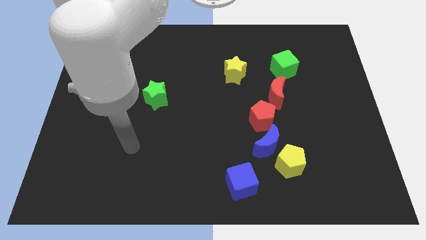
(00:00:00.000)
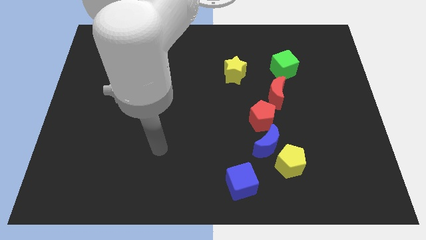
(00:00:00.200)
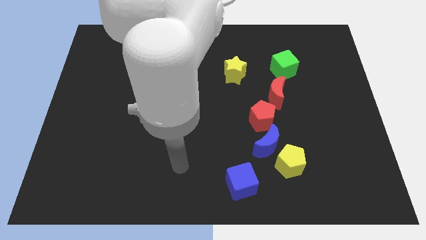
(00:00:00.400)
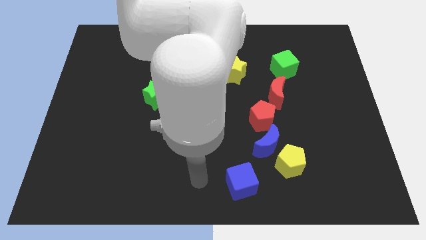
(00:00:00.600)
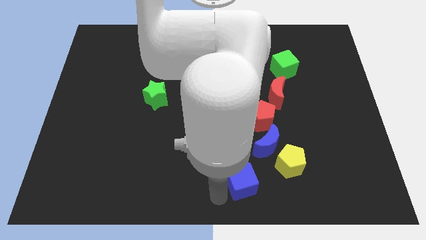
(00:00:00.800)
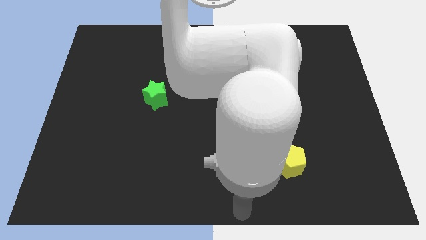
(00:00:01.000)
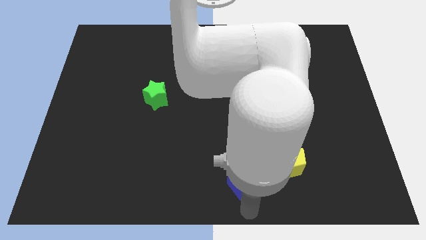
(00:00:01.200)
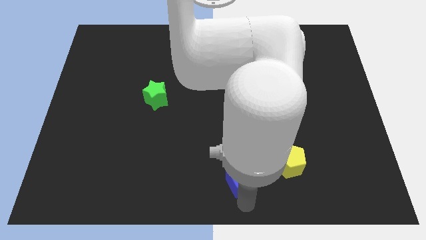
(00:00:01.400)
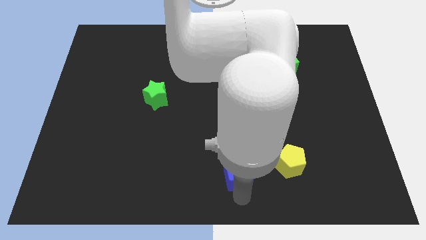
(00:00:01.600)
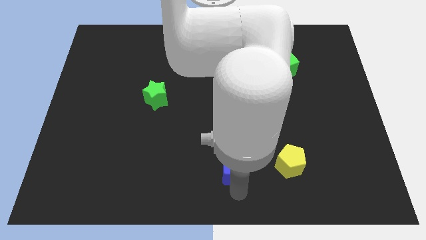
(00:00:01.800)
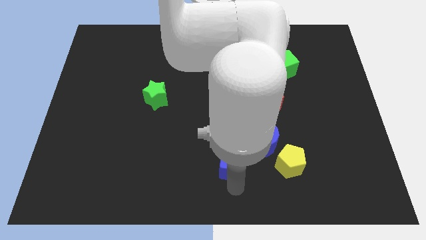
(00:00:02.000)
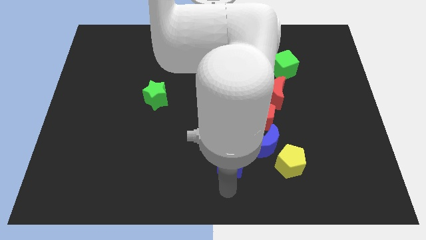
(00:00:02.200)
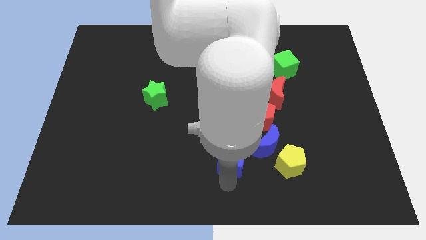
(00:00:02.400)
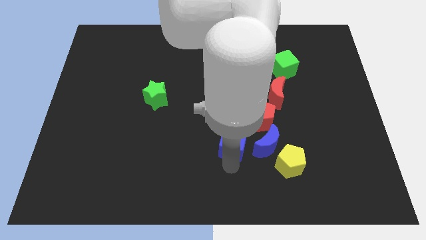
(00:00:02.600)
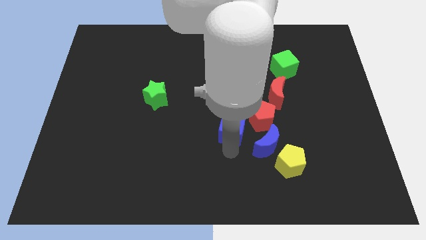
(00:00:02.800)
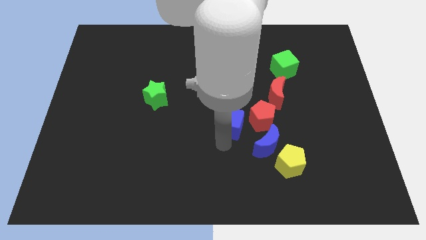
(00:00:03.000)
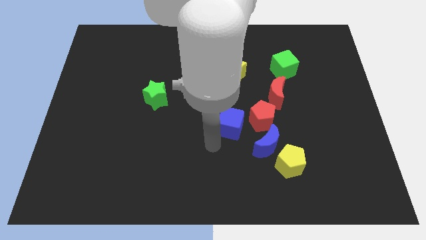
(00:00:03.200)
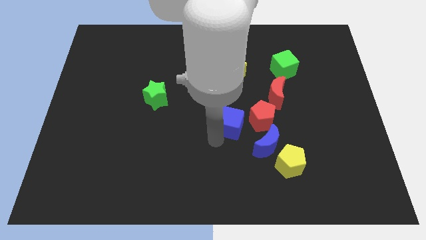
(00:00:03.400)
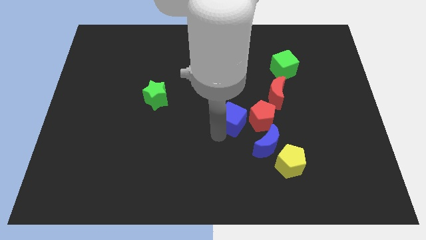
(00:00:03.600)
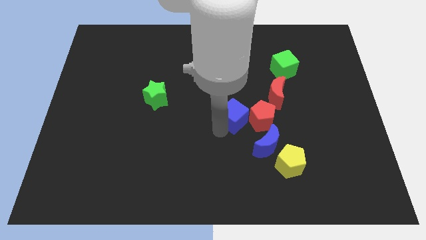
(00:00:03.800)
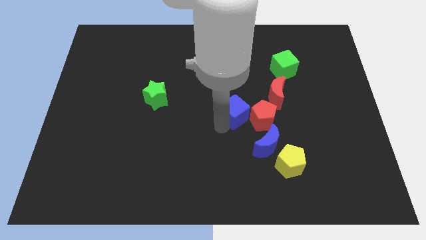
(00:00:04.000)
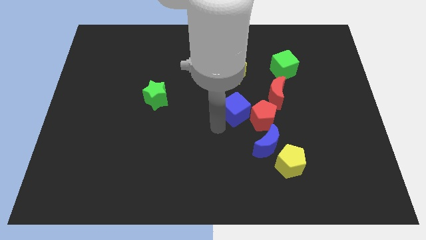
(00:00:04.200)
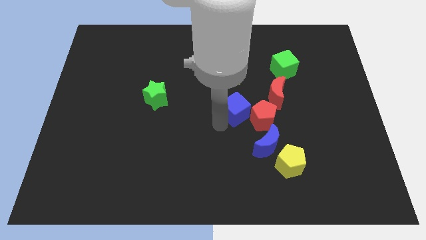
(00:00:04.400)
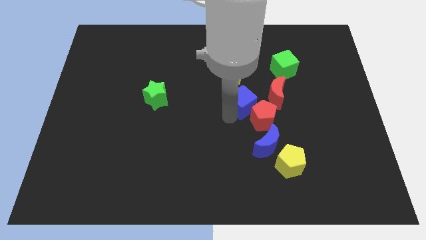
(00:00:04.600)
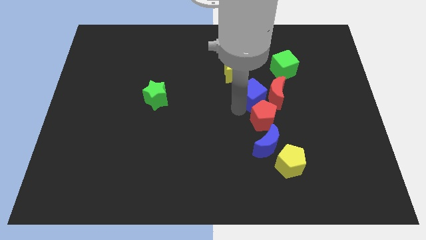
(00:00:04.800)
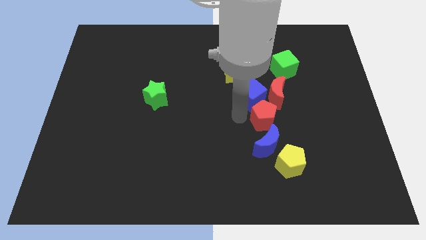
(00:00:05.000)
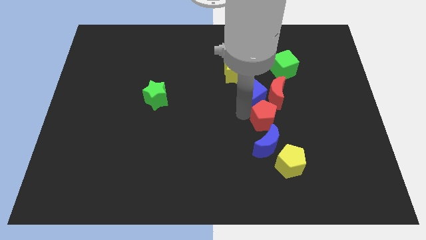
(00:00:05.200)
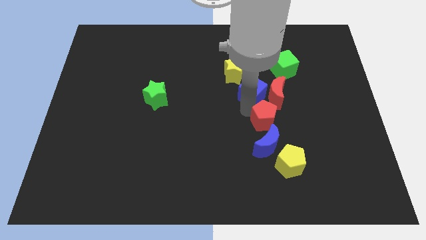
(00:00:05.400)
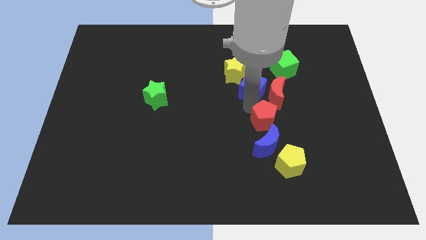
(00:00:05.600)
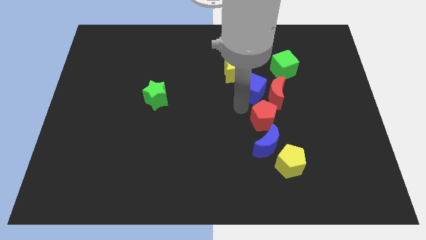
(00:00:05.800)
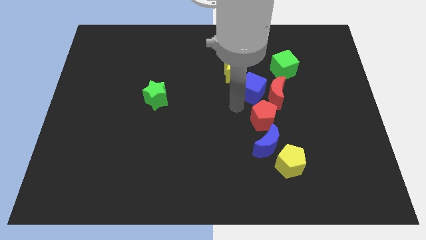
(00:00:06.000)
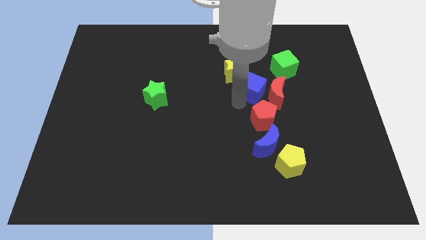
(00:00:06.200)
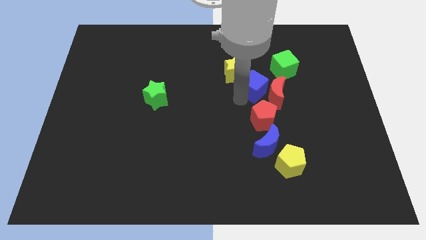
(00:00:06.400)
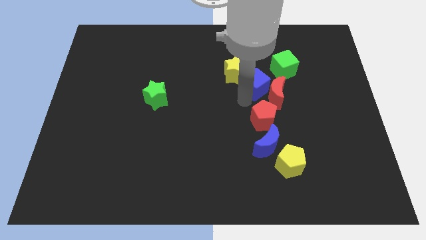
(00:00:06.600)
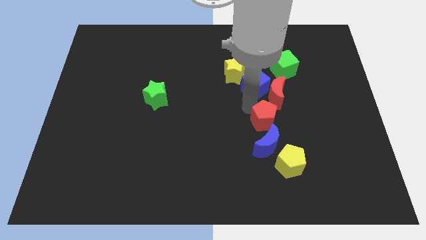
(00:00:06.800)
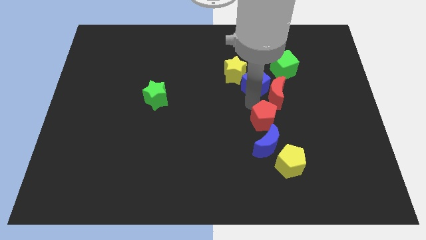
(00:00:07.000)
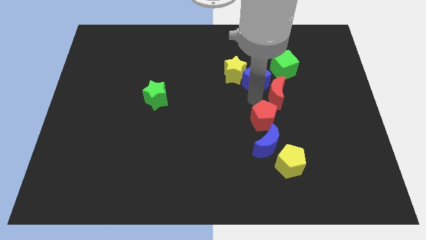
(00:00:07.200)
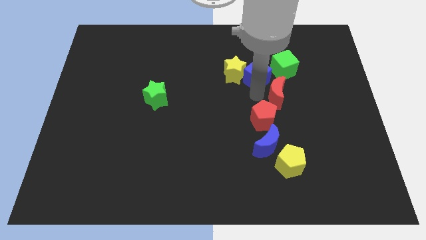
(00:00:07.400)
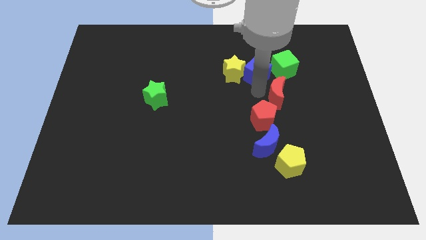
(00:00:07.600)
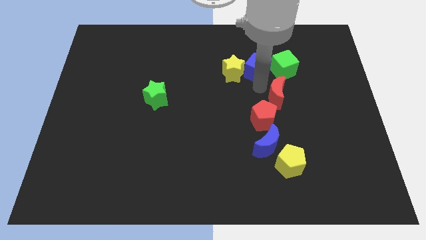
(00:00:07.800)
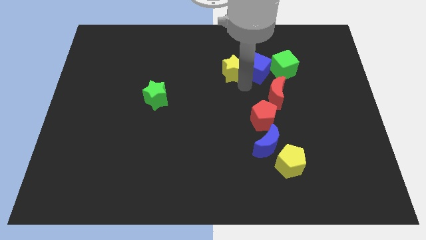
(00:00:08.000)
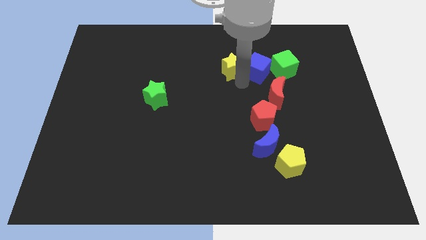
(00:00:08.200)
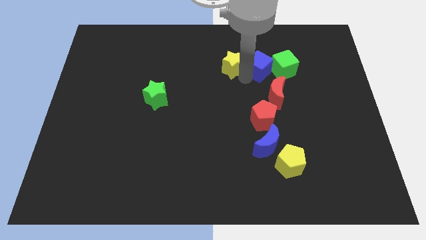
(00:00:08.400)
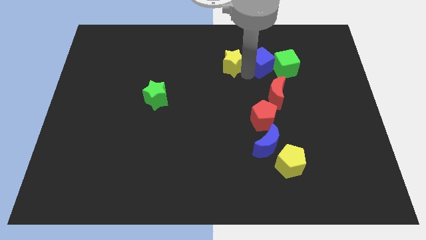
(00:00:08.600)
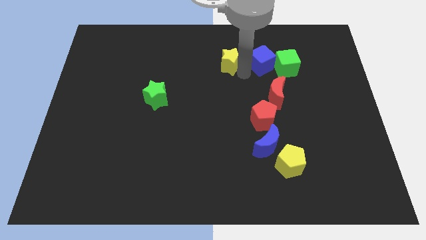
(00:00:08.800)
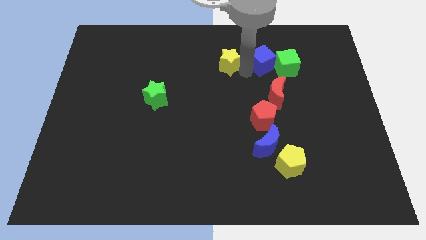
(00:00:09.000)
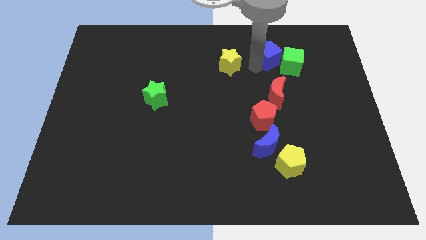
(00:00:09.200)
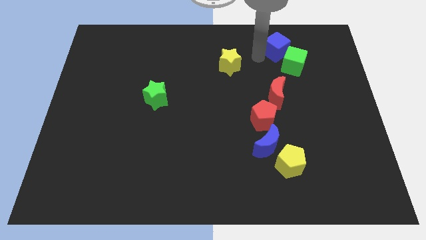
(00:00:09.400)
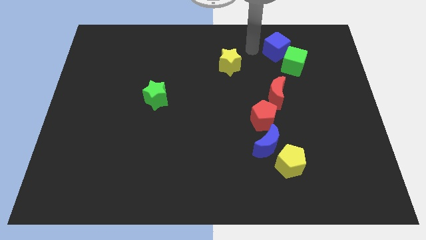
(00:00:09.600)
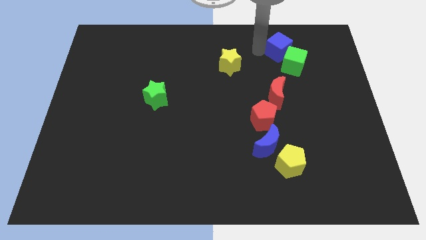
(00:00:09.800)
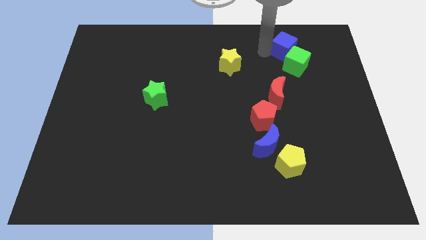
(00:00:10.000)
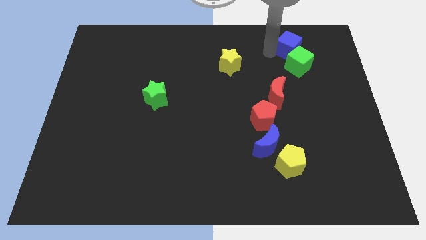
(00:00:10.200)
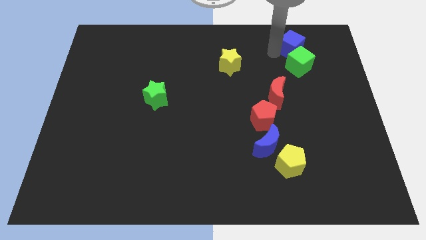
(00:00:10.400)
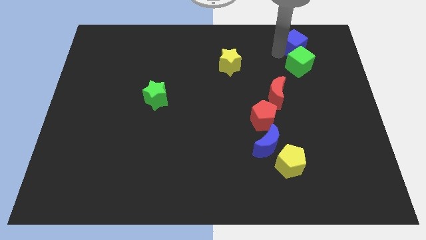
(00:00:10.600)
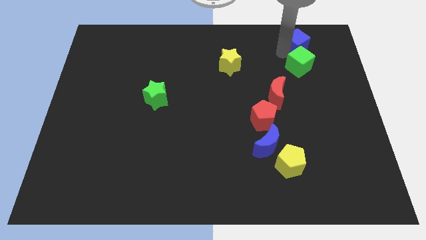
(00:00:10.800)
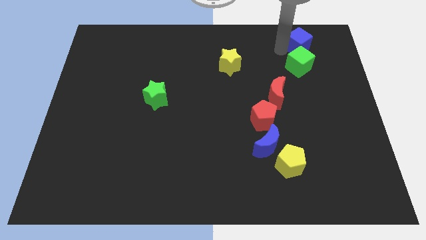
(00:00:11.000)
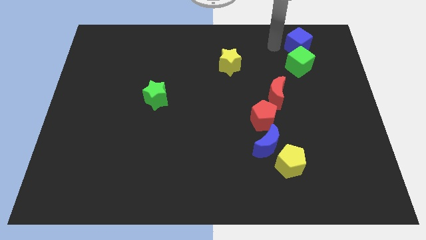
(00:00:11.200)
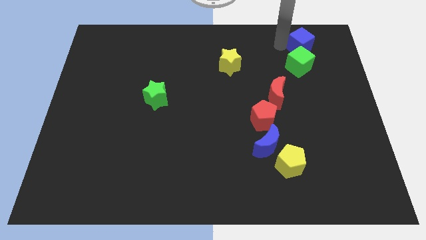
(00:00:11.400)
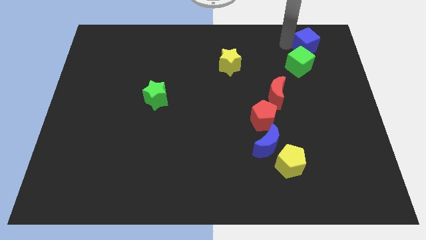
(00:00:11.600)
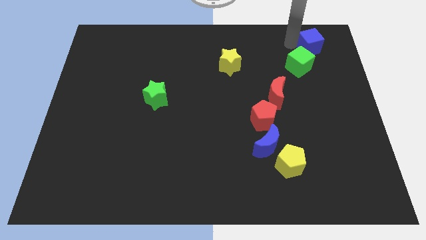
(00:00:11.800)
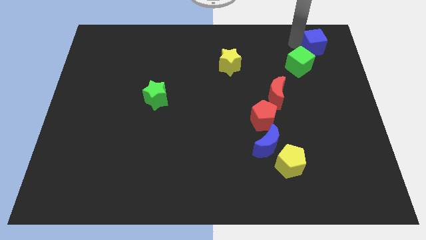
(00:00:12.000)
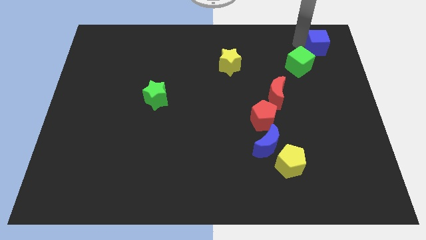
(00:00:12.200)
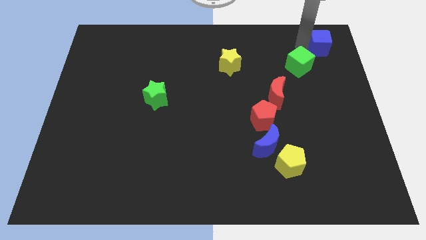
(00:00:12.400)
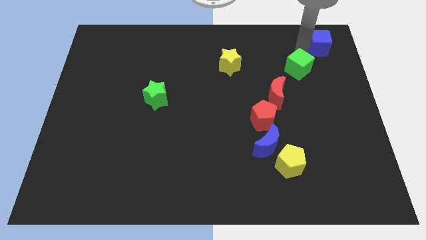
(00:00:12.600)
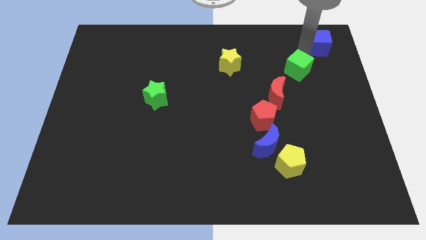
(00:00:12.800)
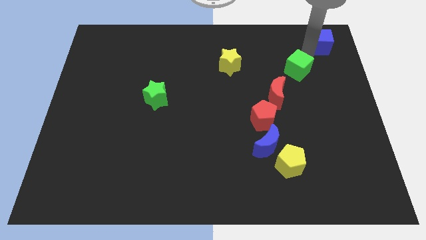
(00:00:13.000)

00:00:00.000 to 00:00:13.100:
slide the blue cube to the upper right corner
